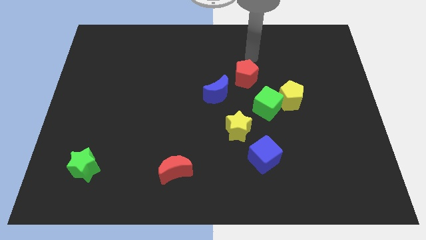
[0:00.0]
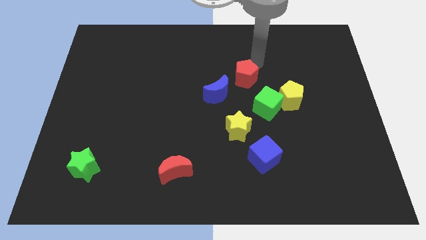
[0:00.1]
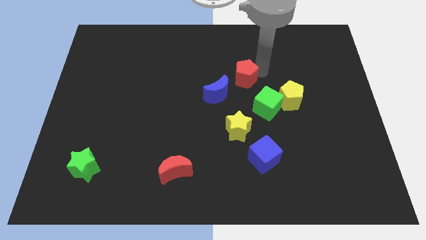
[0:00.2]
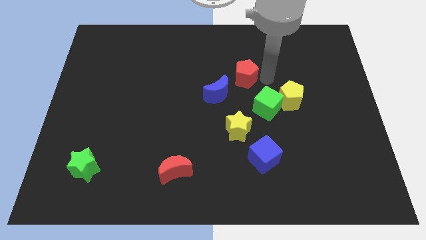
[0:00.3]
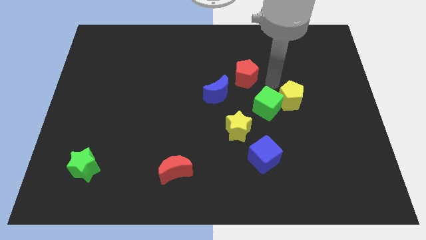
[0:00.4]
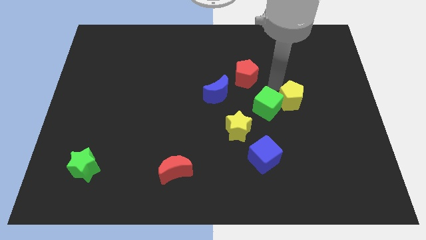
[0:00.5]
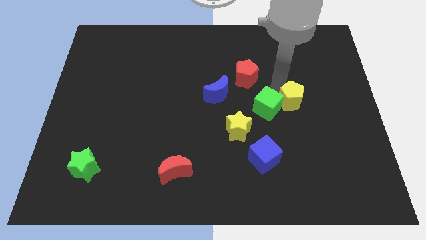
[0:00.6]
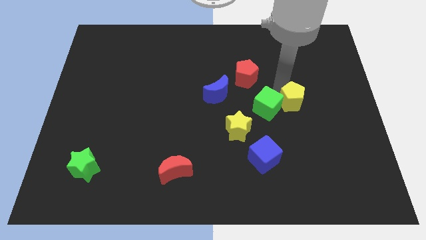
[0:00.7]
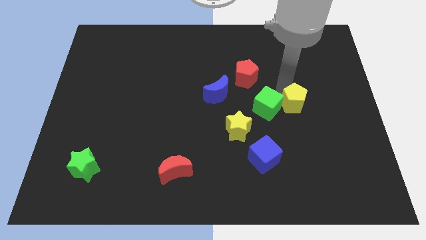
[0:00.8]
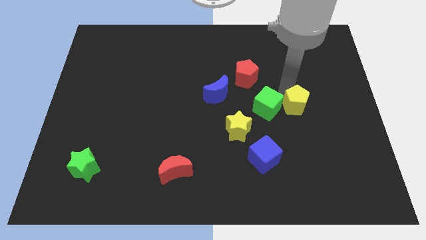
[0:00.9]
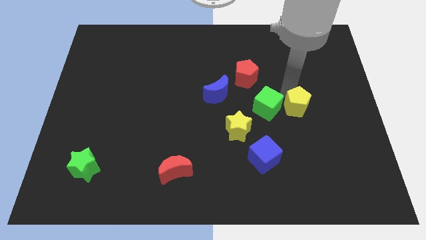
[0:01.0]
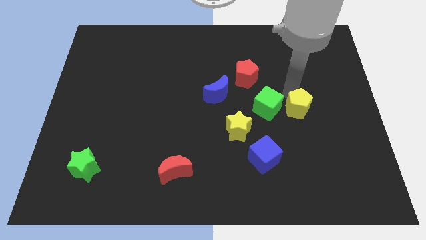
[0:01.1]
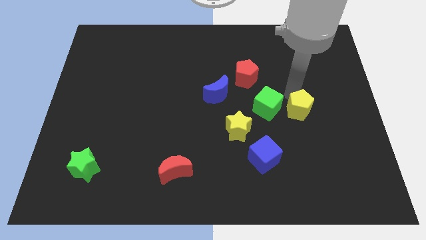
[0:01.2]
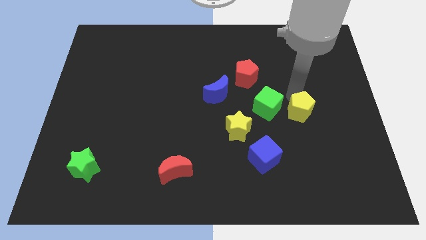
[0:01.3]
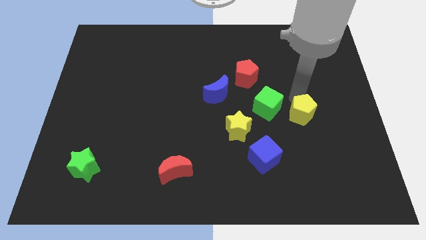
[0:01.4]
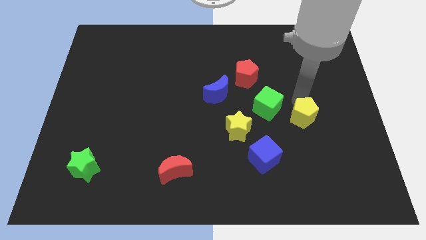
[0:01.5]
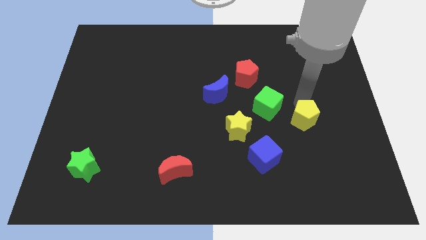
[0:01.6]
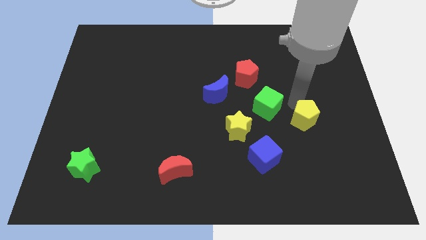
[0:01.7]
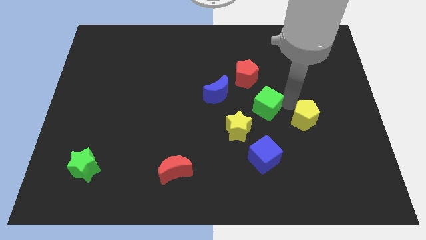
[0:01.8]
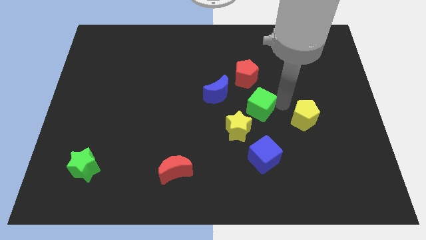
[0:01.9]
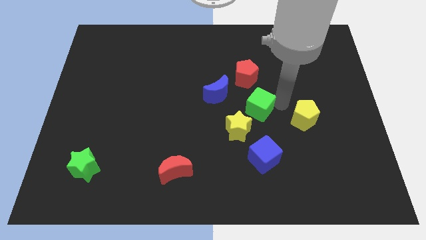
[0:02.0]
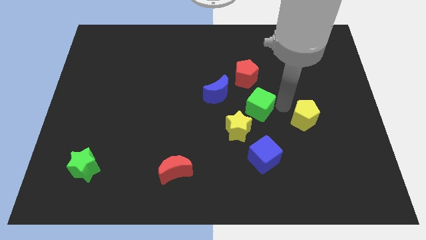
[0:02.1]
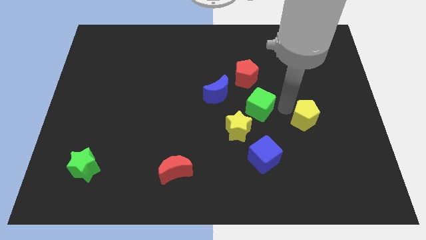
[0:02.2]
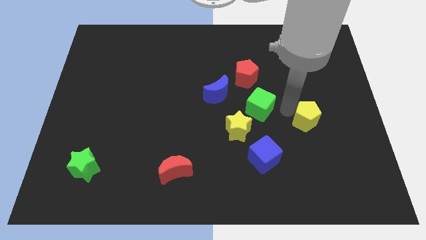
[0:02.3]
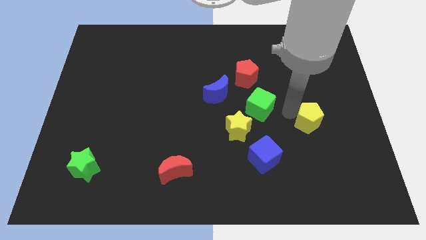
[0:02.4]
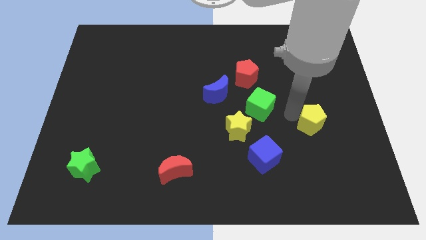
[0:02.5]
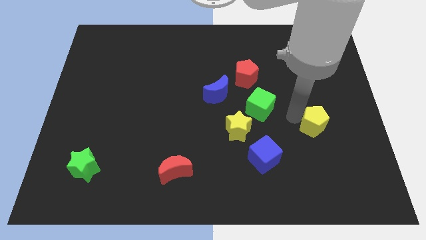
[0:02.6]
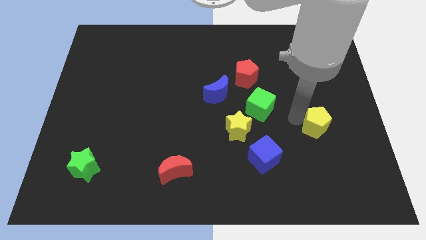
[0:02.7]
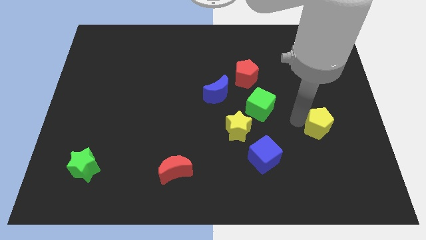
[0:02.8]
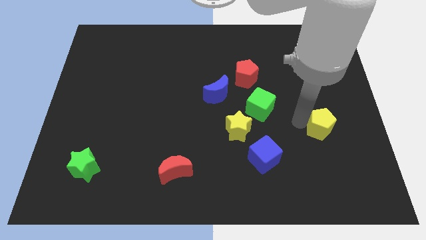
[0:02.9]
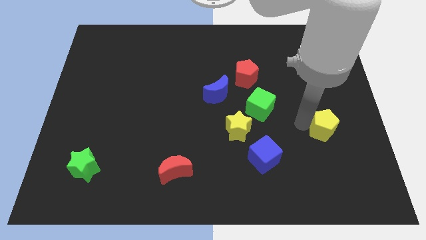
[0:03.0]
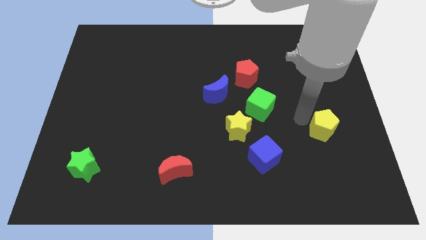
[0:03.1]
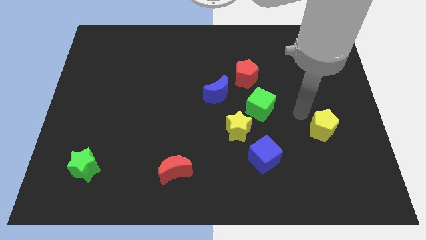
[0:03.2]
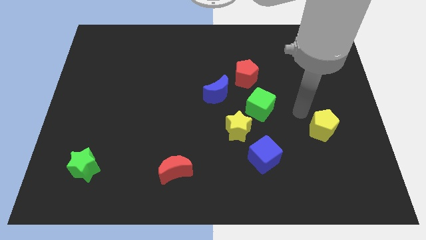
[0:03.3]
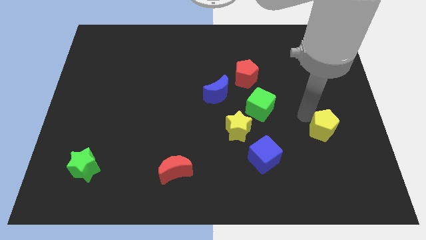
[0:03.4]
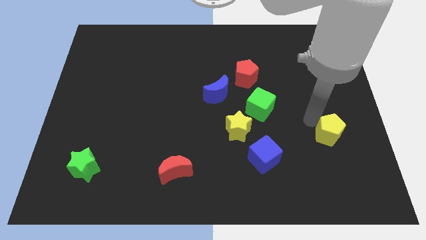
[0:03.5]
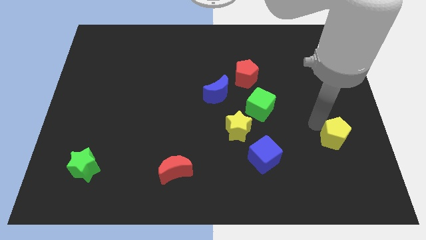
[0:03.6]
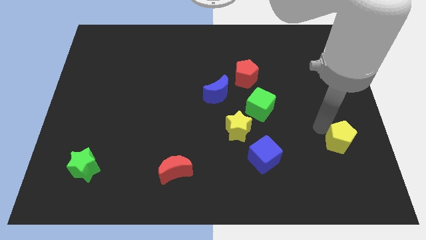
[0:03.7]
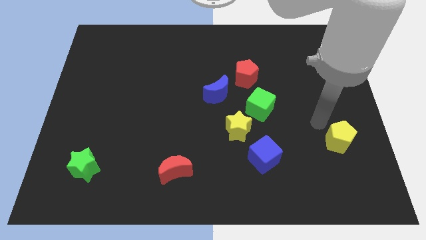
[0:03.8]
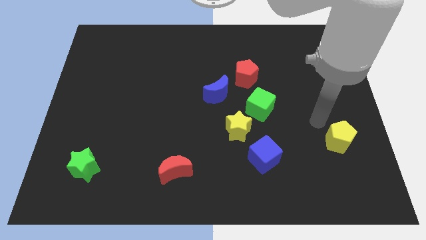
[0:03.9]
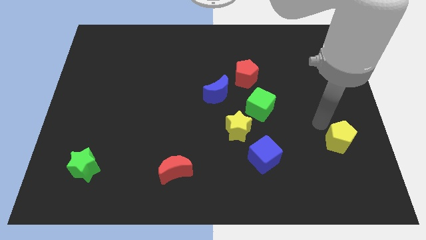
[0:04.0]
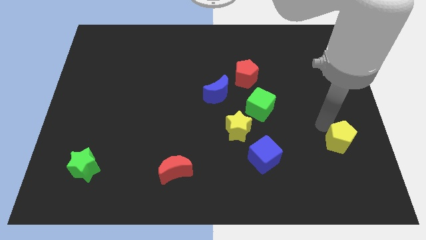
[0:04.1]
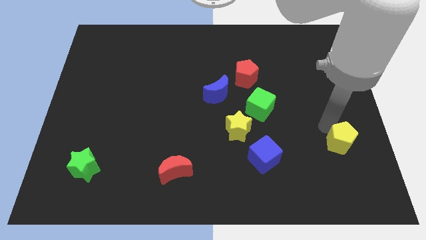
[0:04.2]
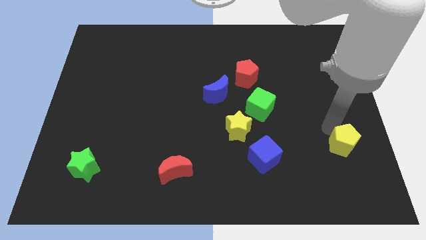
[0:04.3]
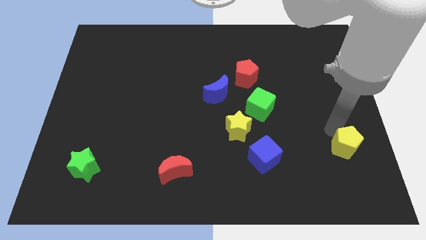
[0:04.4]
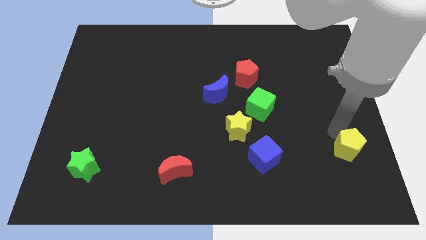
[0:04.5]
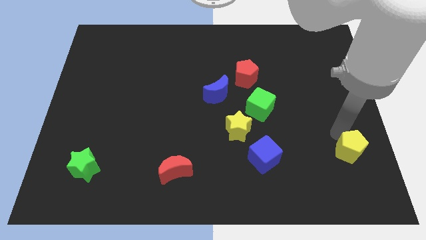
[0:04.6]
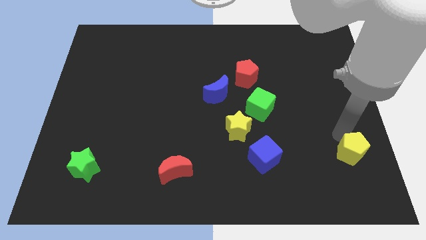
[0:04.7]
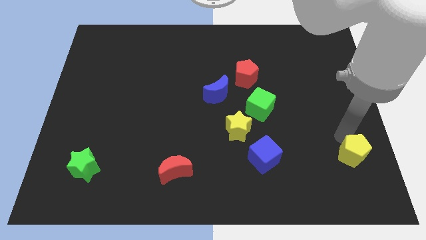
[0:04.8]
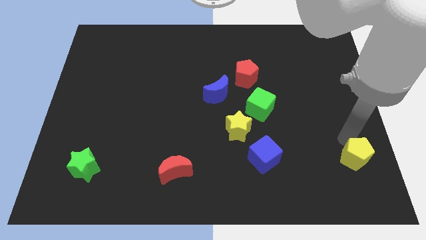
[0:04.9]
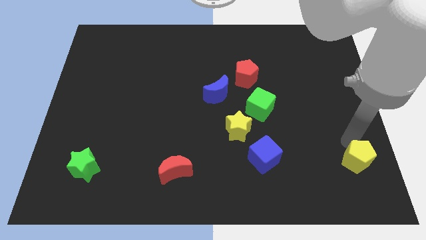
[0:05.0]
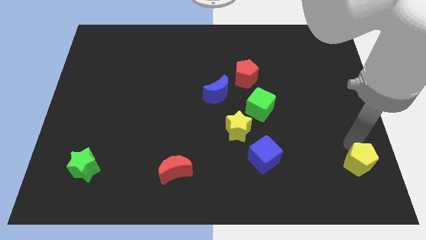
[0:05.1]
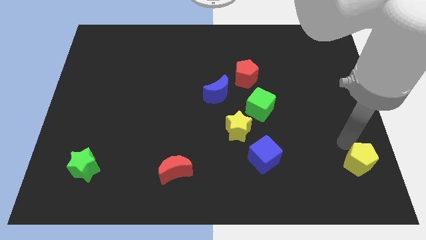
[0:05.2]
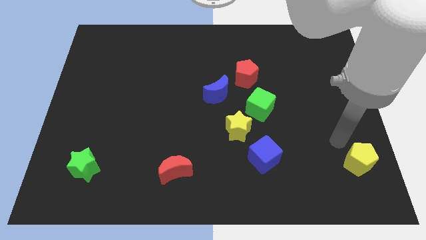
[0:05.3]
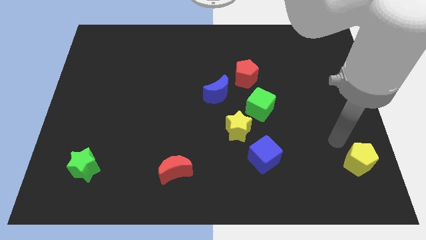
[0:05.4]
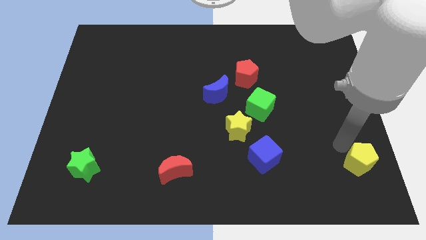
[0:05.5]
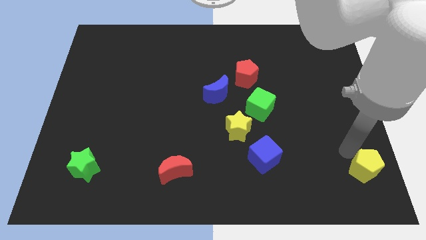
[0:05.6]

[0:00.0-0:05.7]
put the yellow pentagon to the bottom right corner

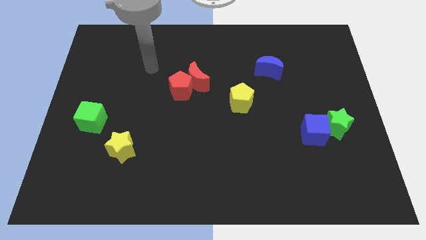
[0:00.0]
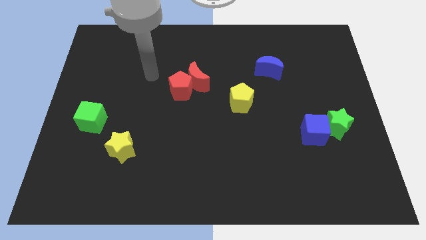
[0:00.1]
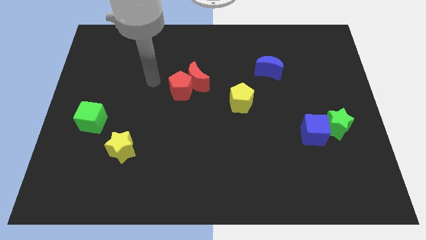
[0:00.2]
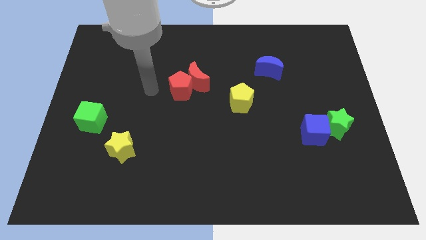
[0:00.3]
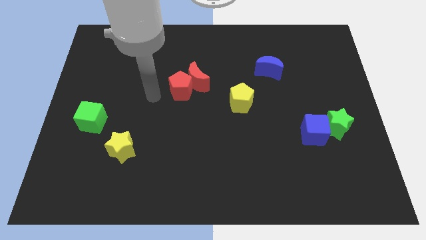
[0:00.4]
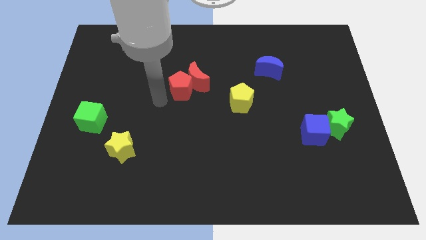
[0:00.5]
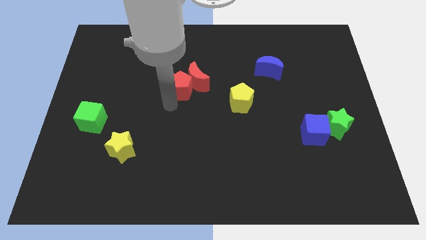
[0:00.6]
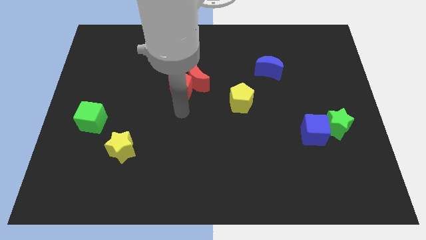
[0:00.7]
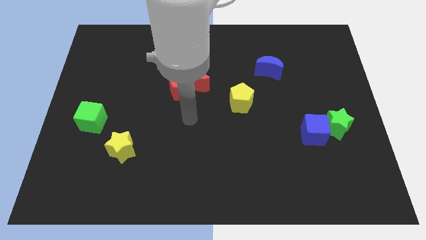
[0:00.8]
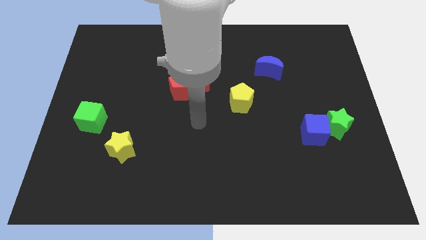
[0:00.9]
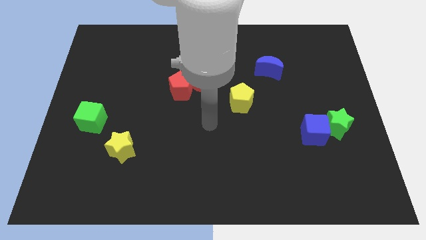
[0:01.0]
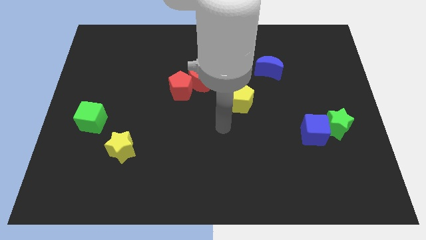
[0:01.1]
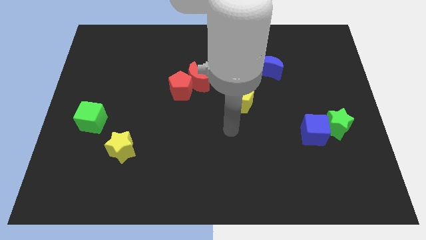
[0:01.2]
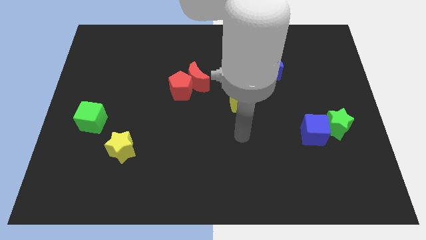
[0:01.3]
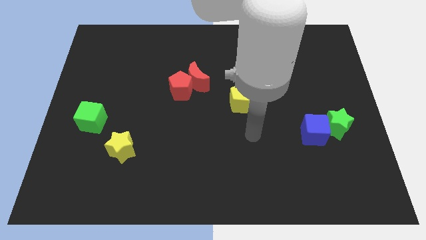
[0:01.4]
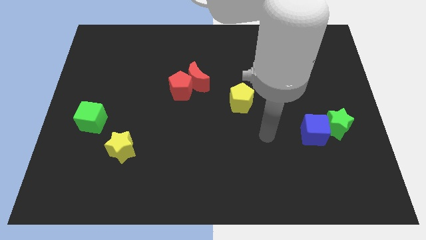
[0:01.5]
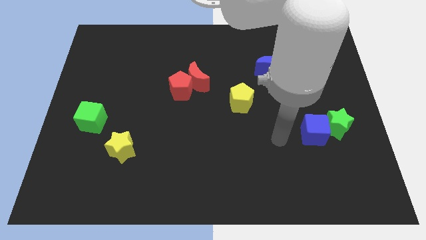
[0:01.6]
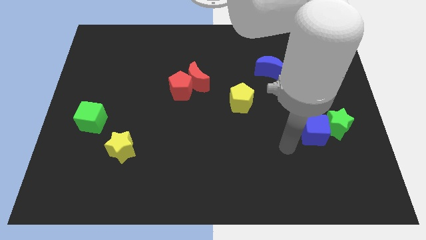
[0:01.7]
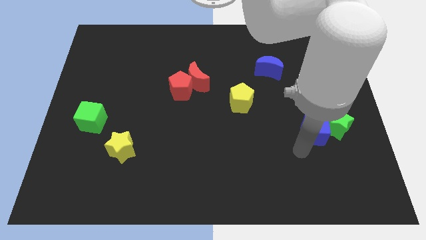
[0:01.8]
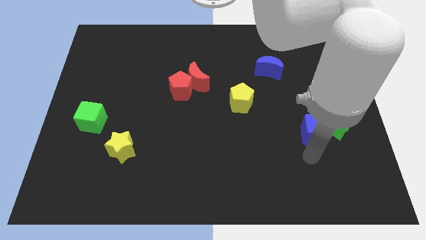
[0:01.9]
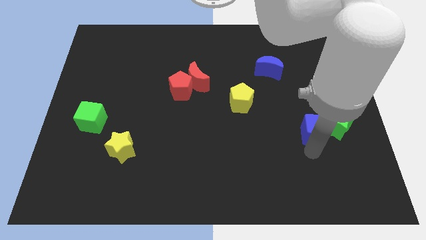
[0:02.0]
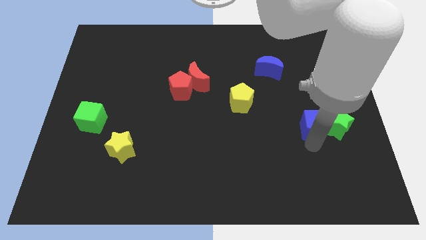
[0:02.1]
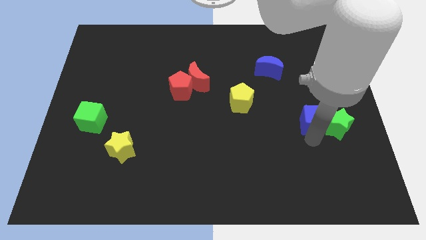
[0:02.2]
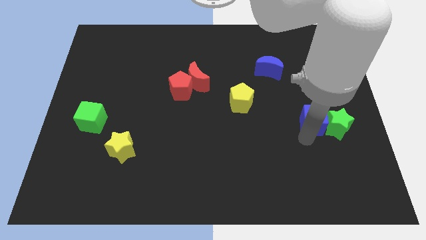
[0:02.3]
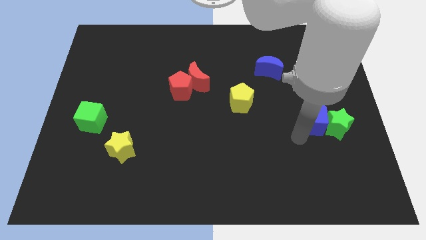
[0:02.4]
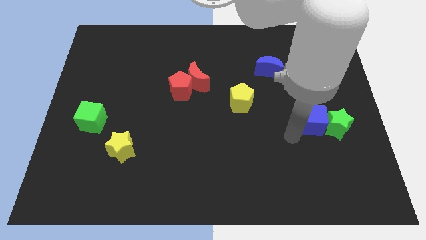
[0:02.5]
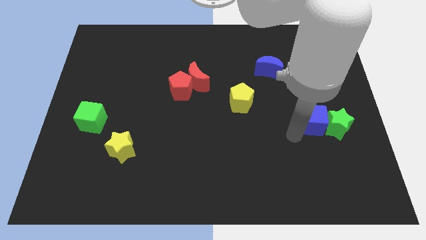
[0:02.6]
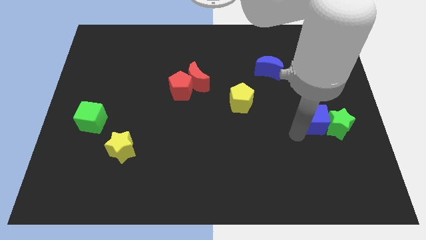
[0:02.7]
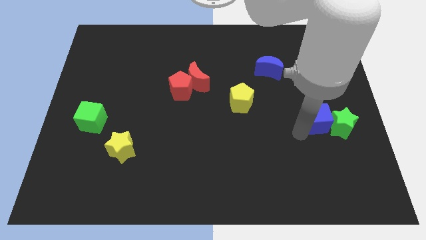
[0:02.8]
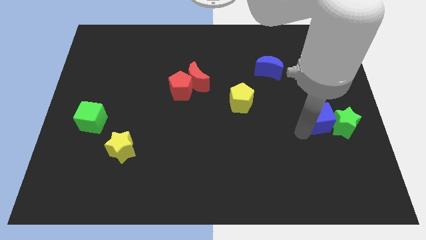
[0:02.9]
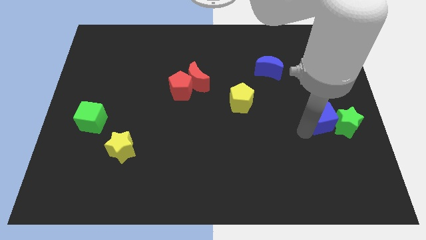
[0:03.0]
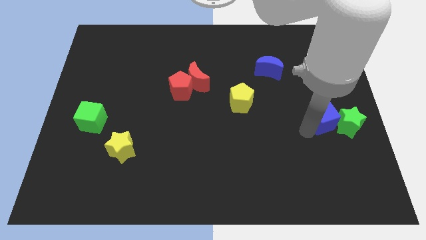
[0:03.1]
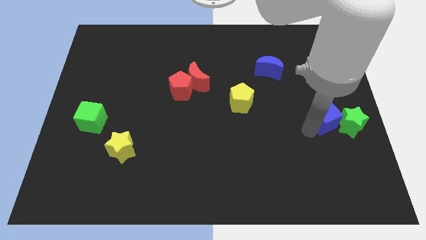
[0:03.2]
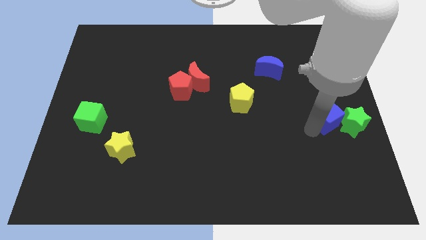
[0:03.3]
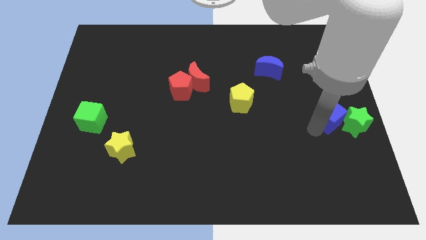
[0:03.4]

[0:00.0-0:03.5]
push the blue cube to the center right
